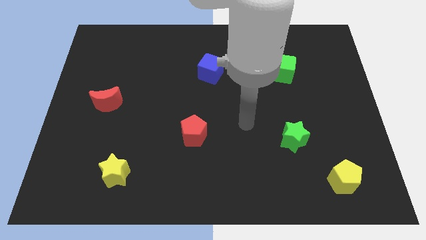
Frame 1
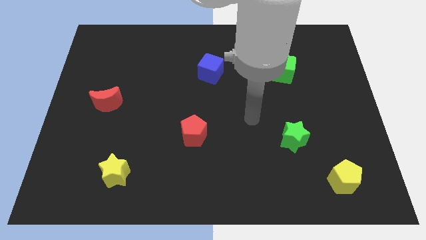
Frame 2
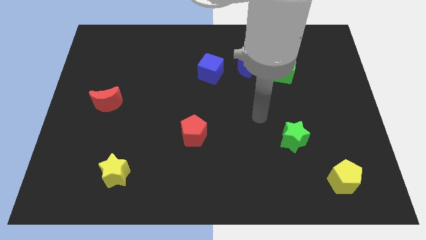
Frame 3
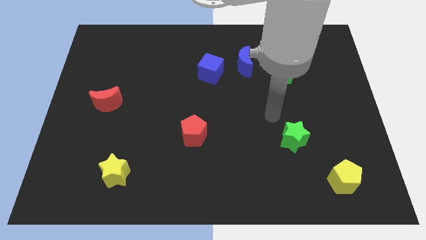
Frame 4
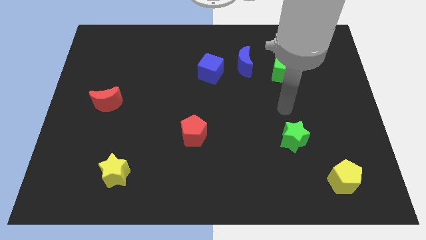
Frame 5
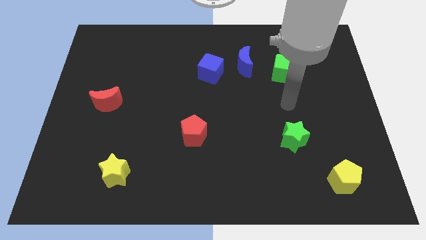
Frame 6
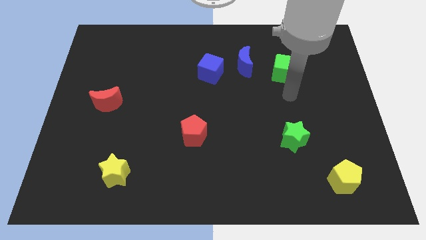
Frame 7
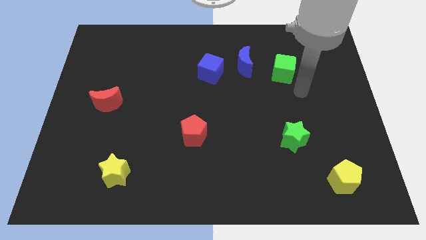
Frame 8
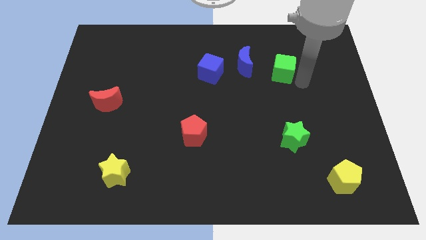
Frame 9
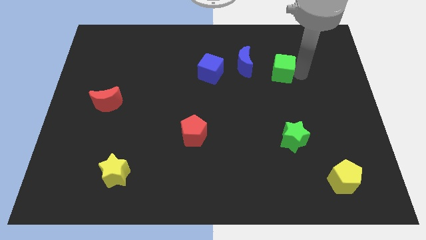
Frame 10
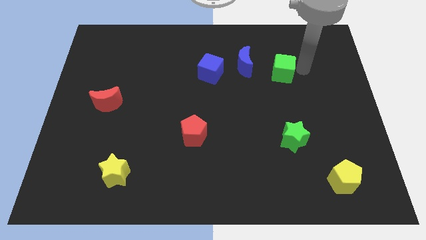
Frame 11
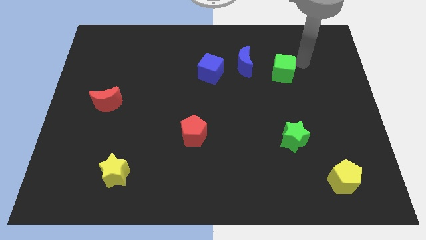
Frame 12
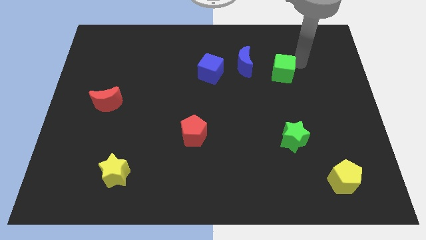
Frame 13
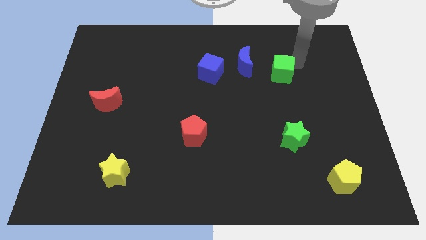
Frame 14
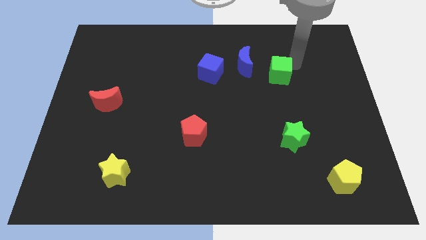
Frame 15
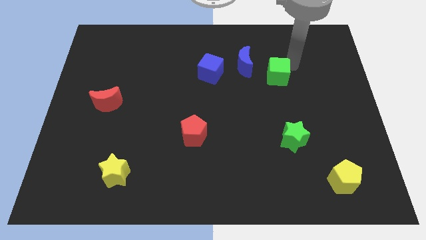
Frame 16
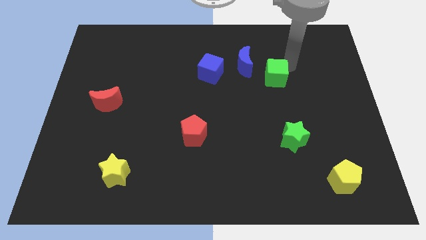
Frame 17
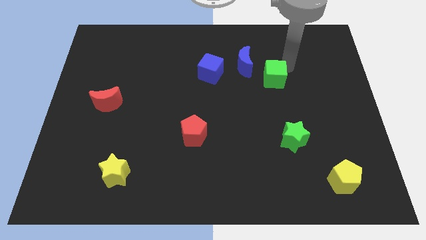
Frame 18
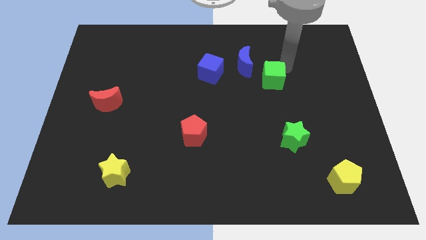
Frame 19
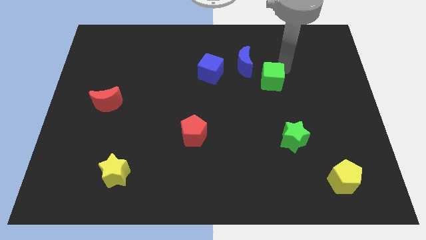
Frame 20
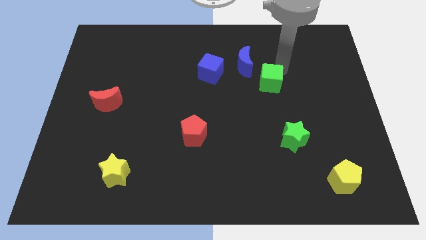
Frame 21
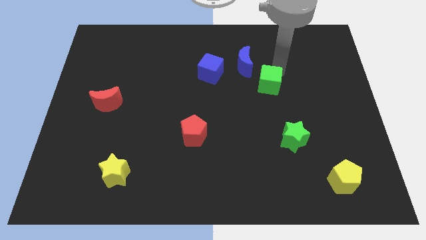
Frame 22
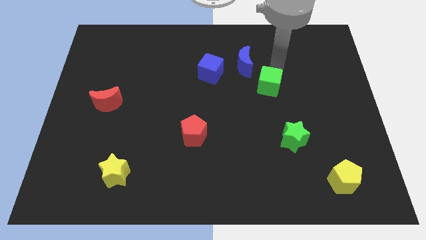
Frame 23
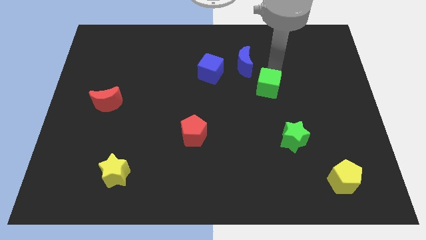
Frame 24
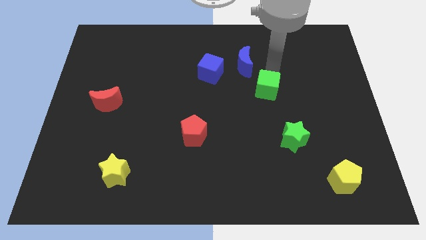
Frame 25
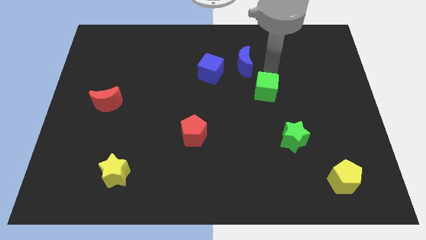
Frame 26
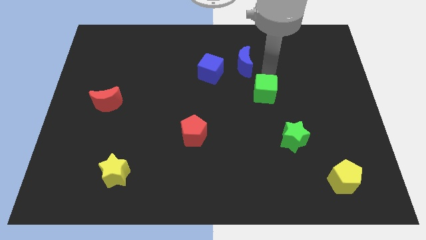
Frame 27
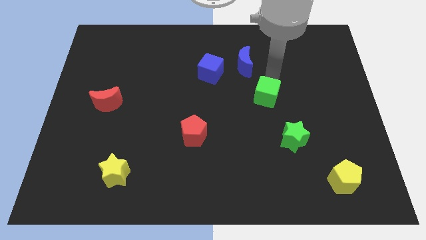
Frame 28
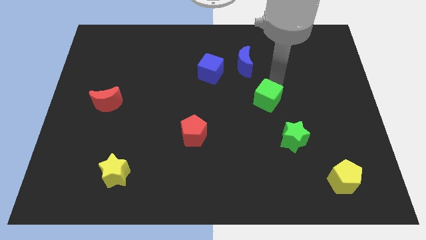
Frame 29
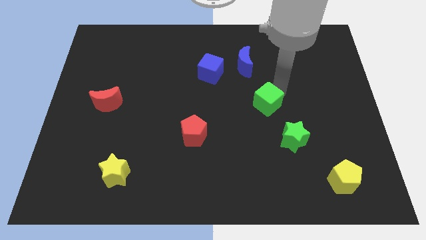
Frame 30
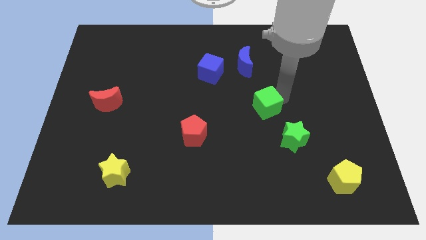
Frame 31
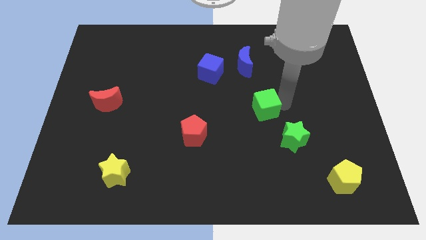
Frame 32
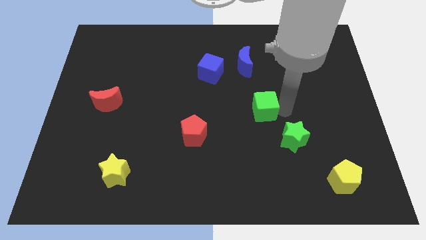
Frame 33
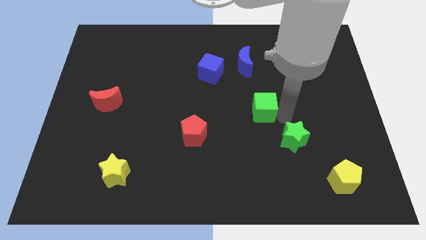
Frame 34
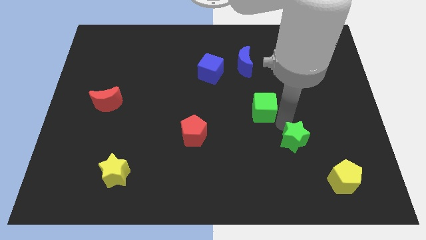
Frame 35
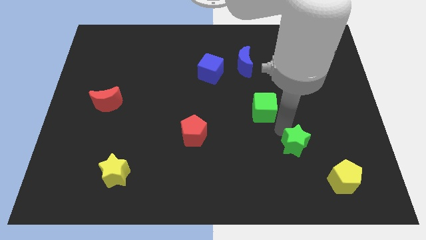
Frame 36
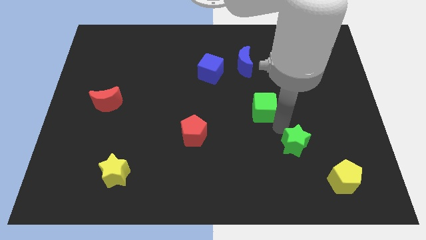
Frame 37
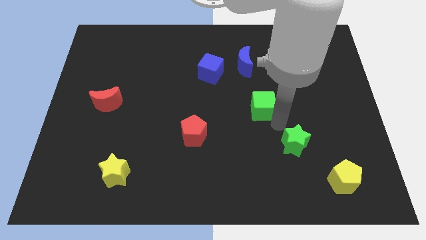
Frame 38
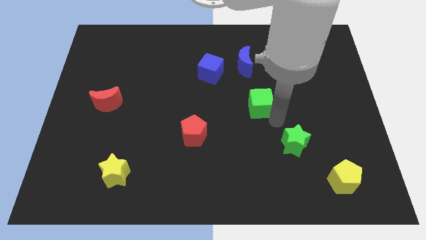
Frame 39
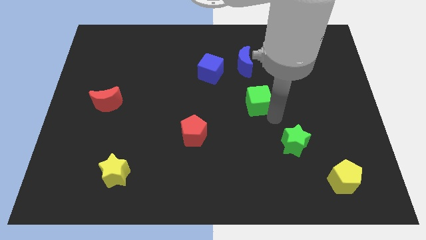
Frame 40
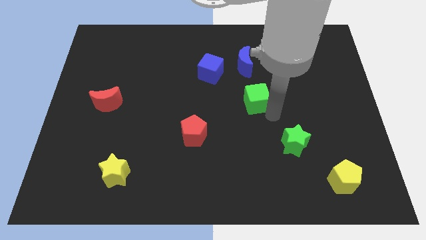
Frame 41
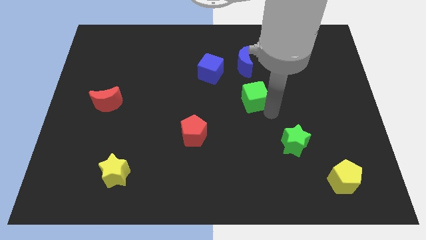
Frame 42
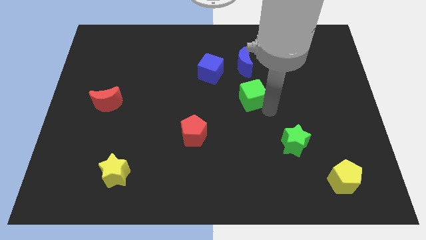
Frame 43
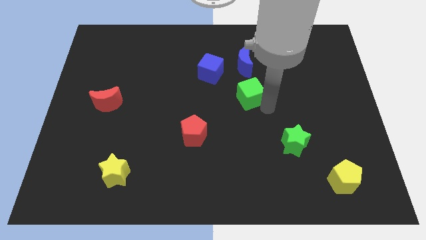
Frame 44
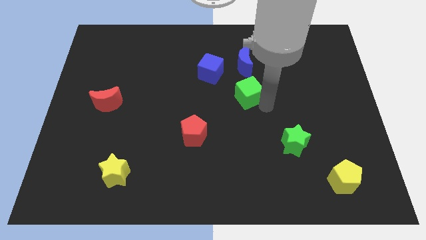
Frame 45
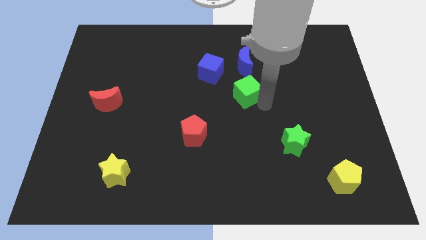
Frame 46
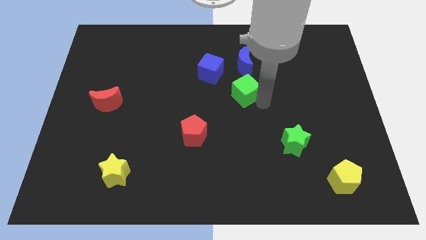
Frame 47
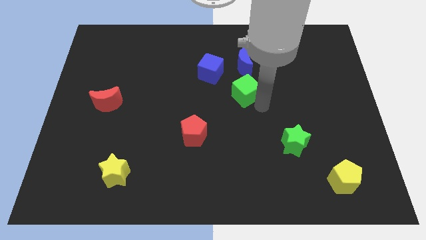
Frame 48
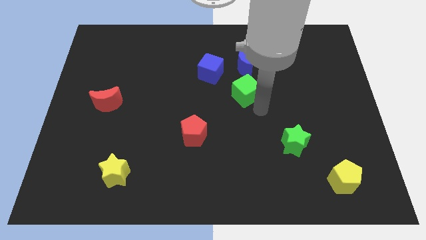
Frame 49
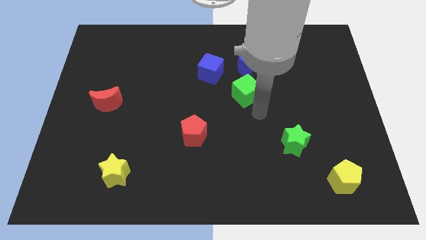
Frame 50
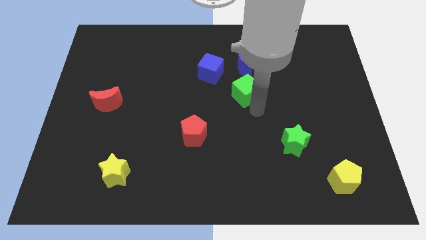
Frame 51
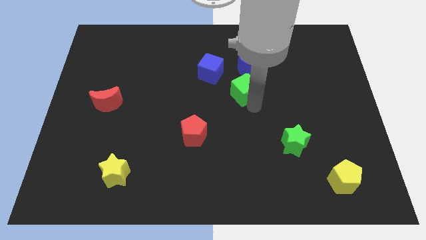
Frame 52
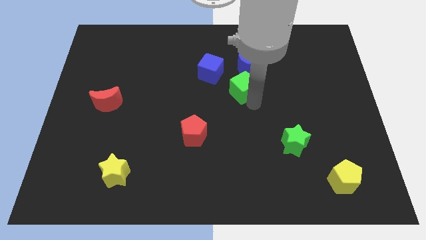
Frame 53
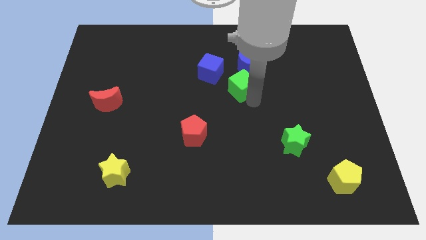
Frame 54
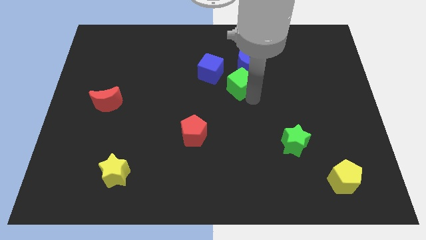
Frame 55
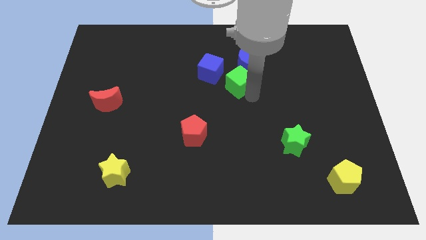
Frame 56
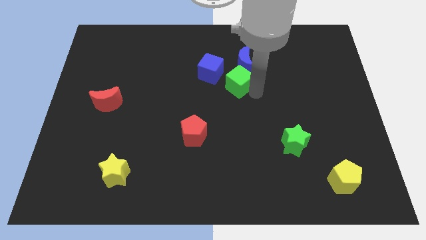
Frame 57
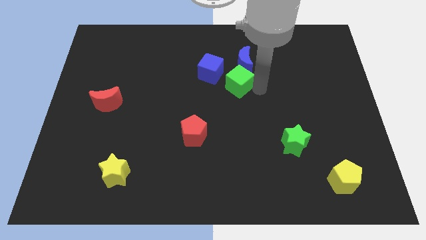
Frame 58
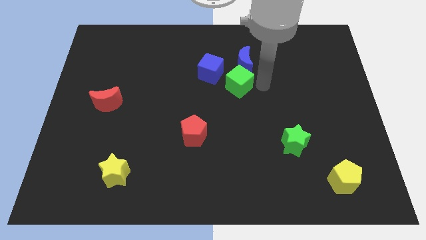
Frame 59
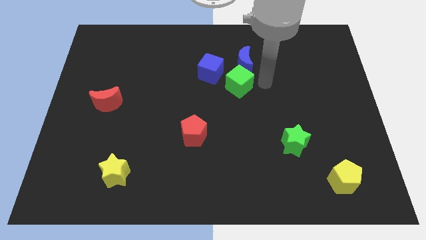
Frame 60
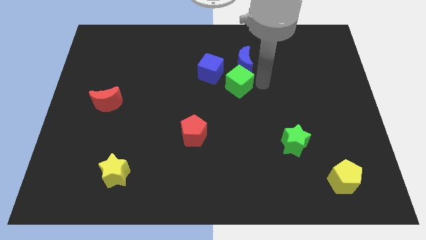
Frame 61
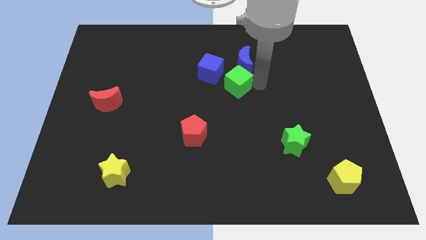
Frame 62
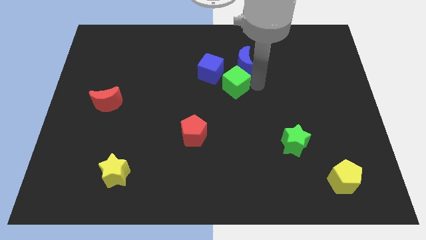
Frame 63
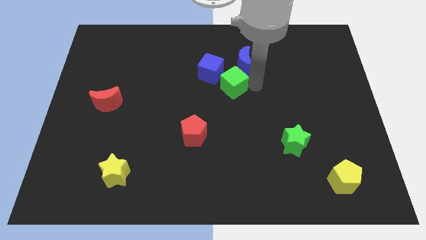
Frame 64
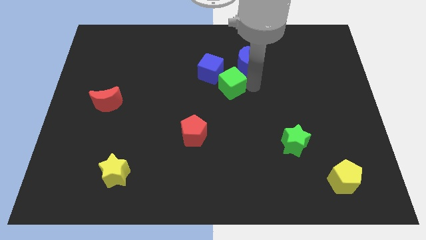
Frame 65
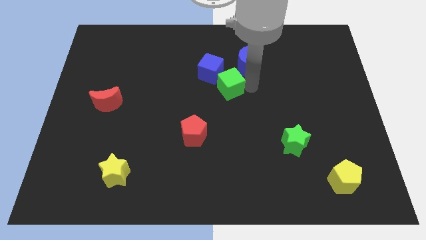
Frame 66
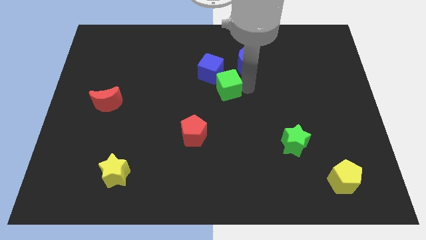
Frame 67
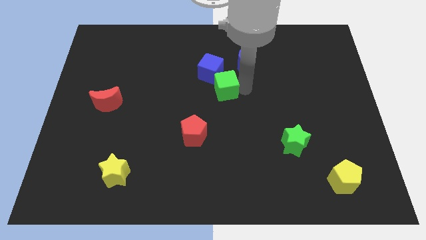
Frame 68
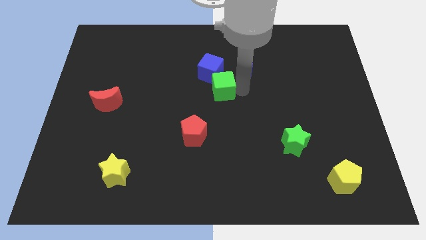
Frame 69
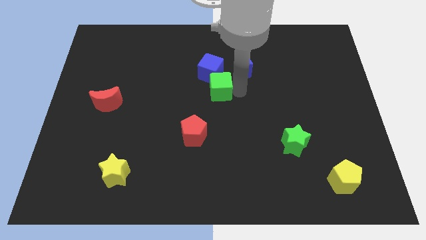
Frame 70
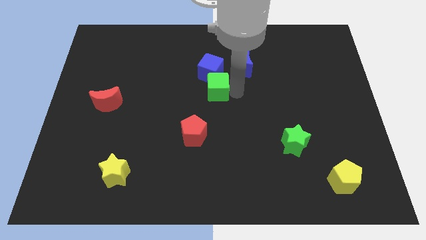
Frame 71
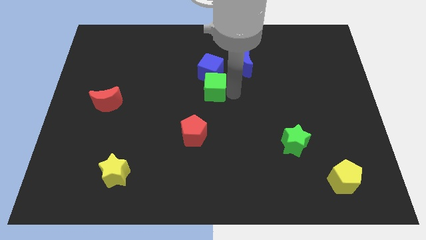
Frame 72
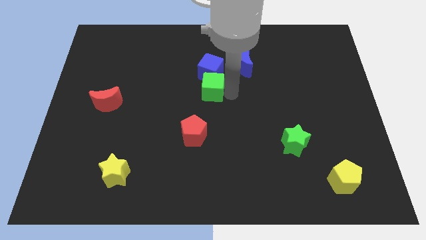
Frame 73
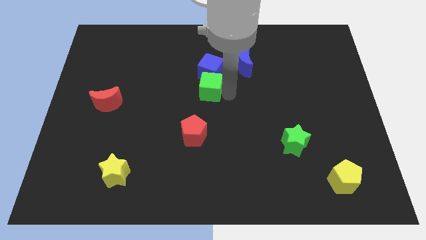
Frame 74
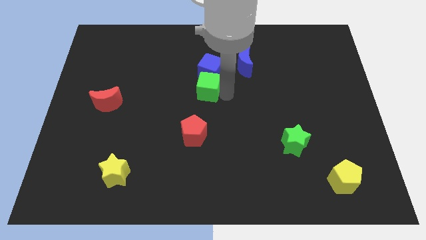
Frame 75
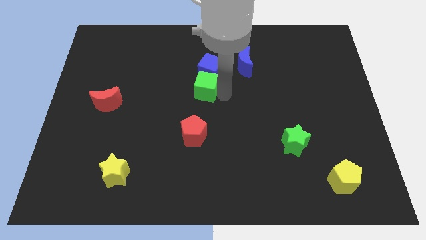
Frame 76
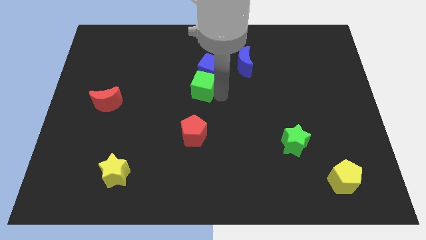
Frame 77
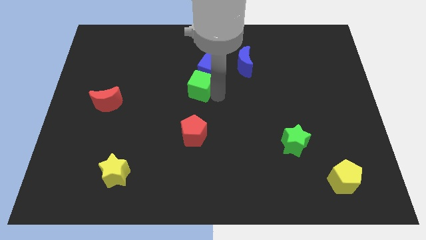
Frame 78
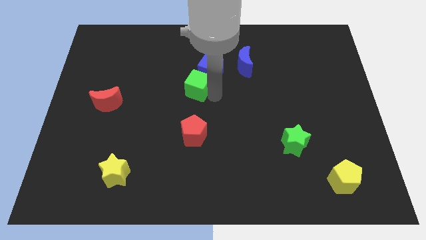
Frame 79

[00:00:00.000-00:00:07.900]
move the green cube left

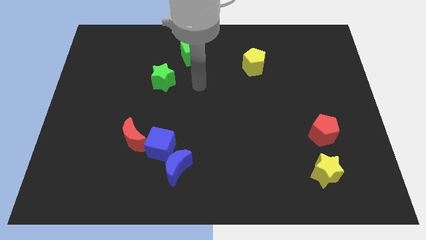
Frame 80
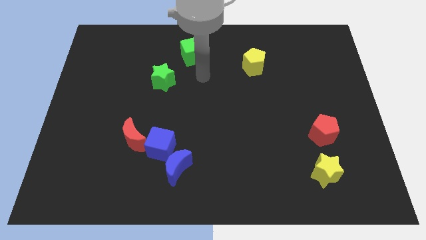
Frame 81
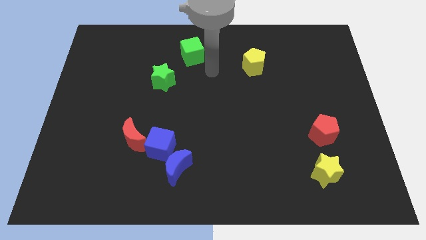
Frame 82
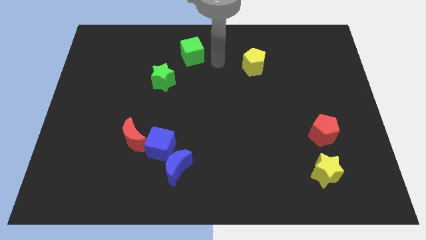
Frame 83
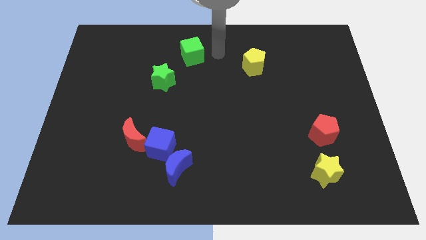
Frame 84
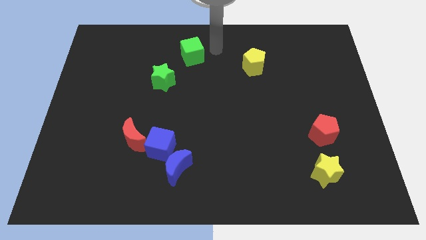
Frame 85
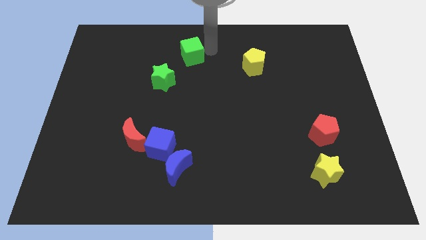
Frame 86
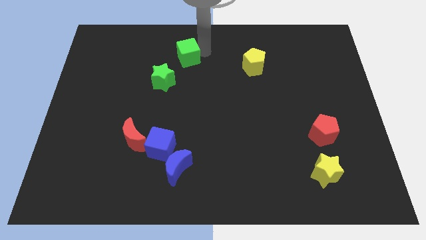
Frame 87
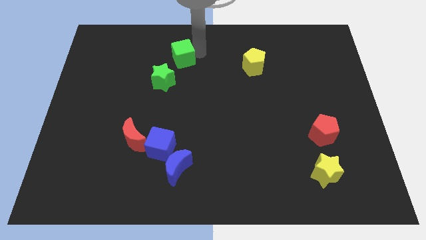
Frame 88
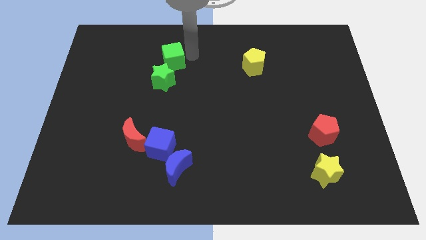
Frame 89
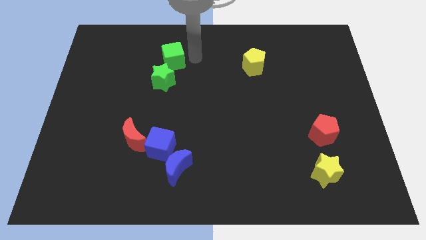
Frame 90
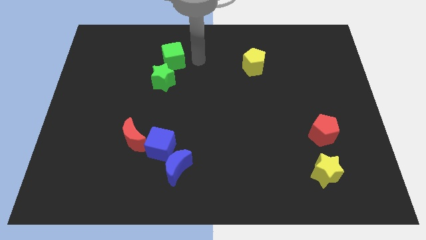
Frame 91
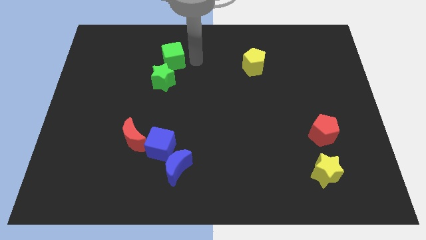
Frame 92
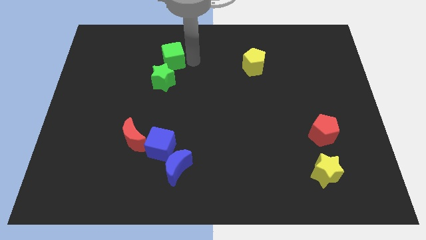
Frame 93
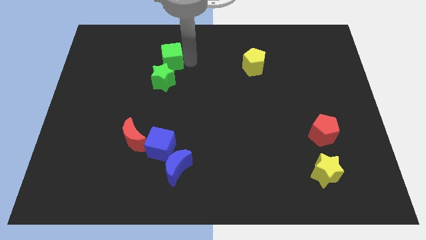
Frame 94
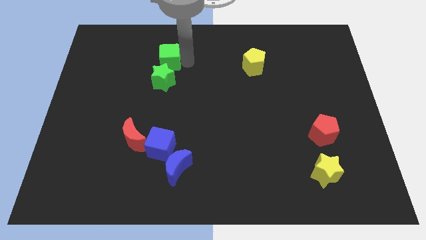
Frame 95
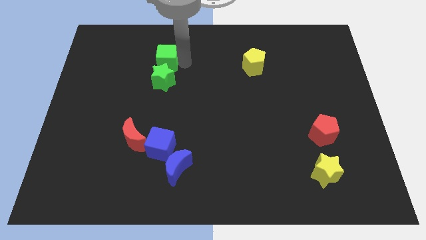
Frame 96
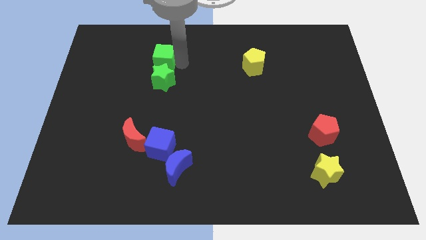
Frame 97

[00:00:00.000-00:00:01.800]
slide the green cube a bit to the left
